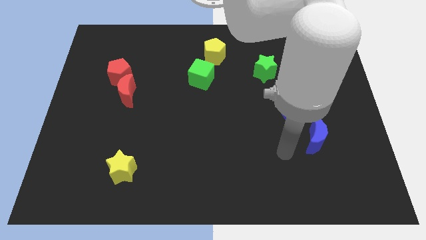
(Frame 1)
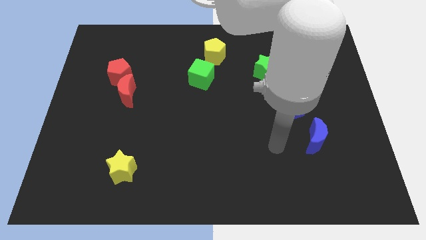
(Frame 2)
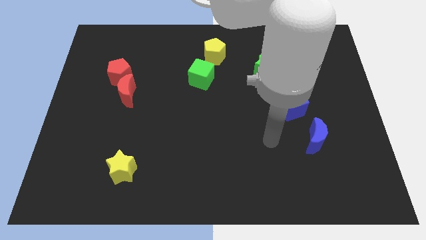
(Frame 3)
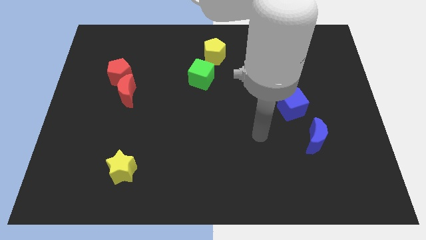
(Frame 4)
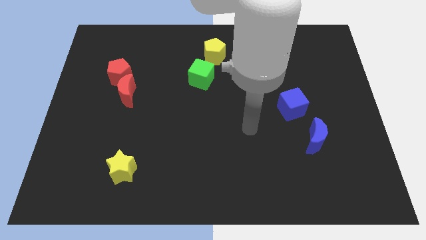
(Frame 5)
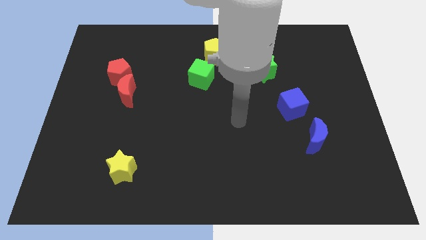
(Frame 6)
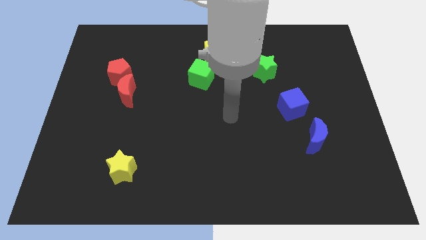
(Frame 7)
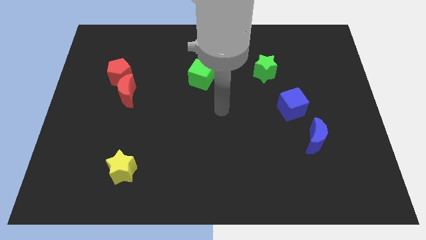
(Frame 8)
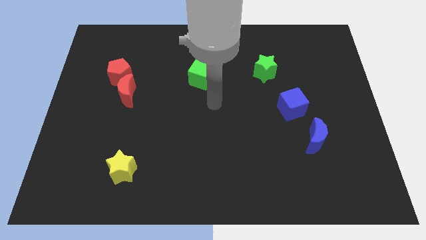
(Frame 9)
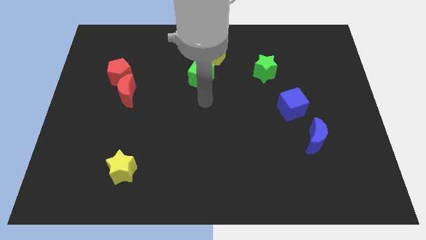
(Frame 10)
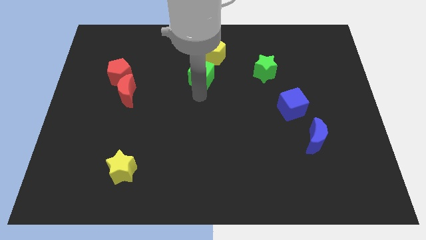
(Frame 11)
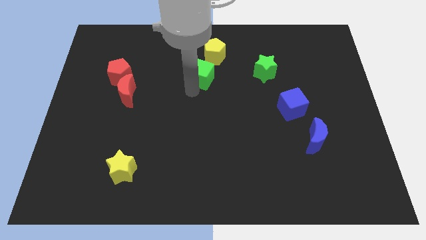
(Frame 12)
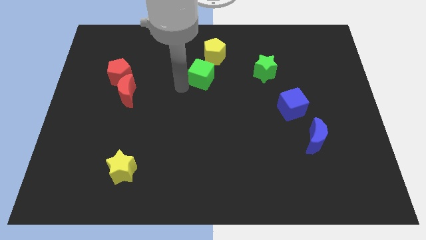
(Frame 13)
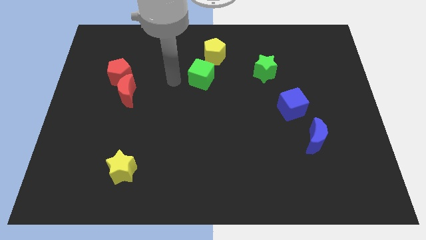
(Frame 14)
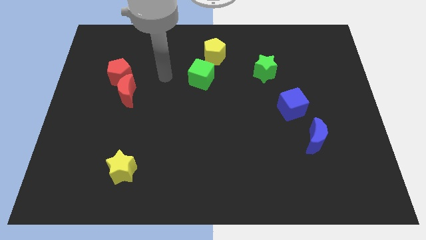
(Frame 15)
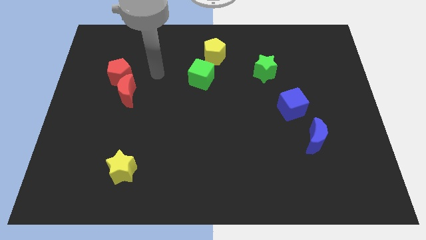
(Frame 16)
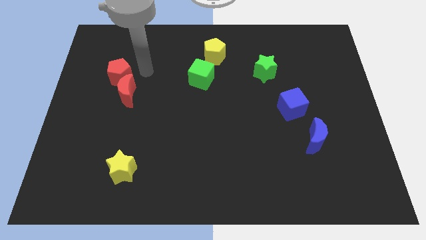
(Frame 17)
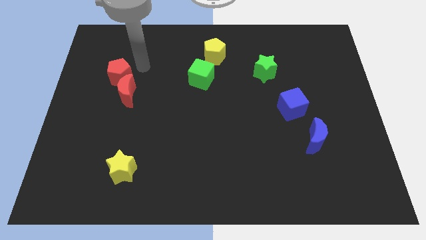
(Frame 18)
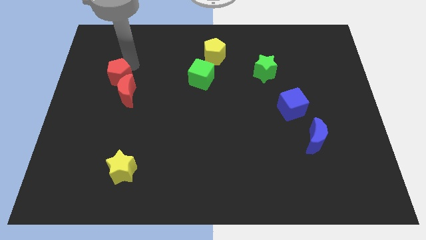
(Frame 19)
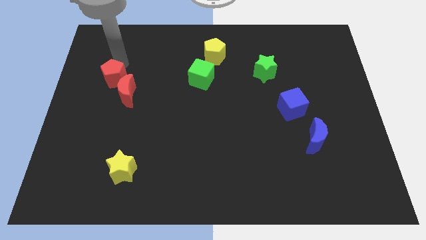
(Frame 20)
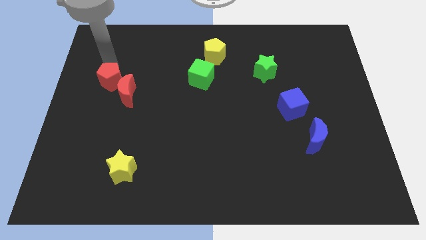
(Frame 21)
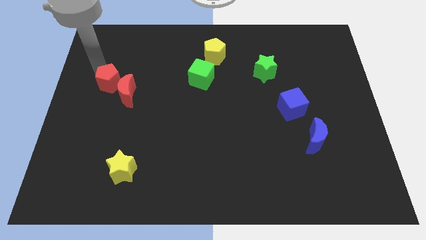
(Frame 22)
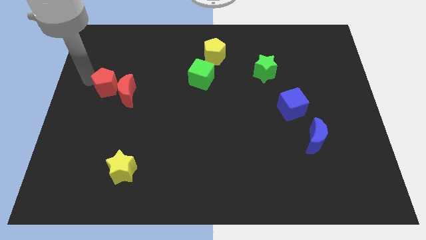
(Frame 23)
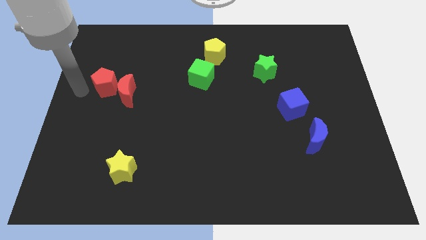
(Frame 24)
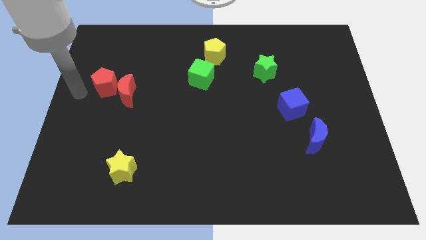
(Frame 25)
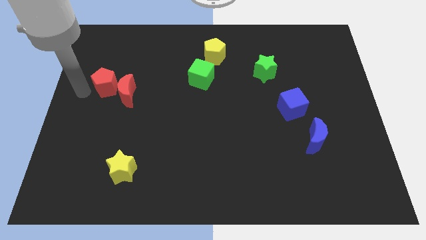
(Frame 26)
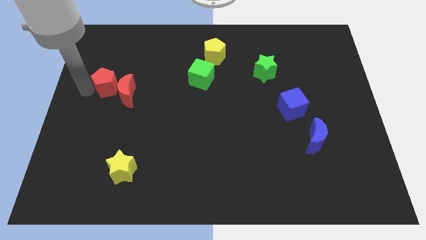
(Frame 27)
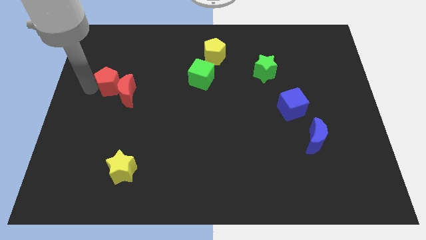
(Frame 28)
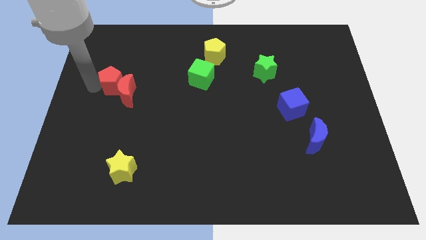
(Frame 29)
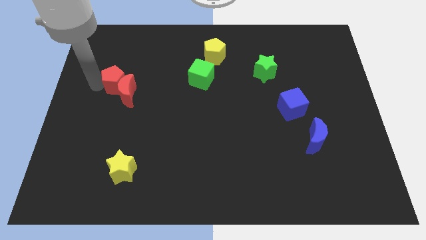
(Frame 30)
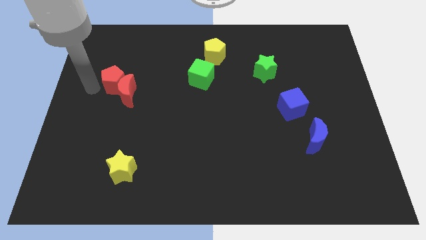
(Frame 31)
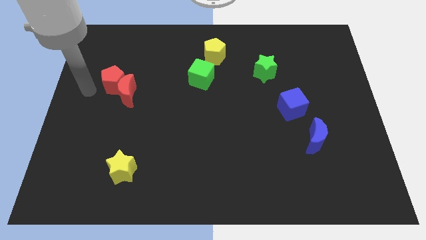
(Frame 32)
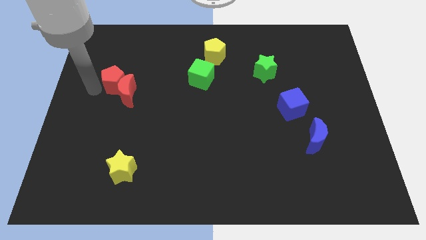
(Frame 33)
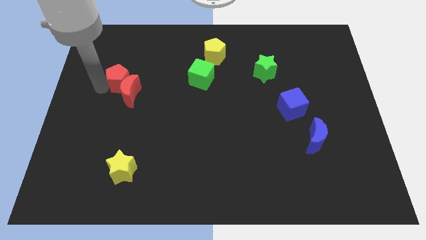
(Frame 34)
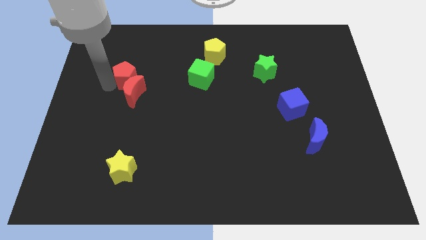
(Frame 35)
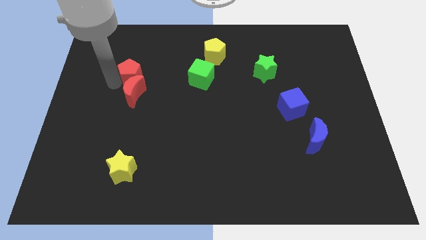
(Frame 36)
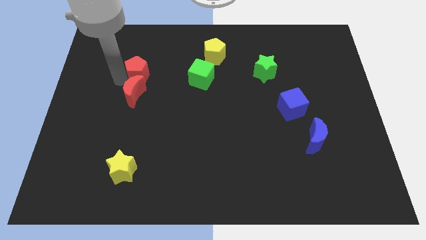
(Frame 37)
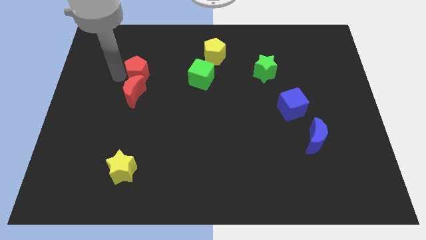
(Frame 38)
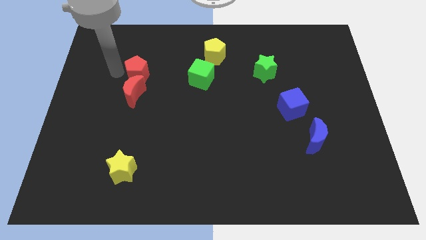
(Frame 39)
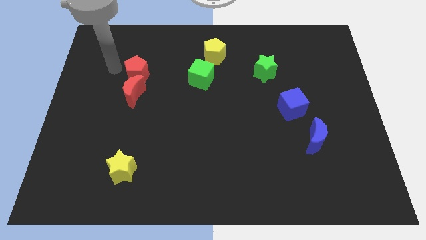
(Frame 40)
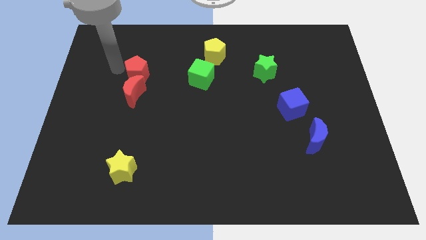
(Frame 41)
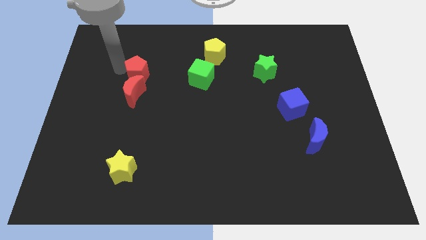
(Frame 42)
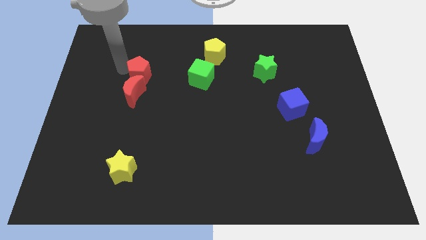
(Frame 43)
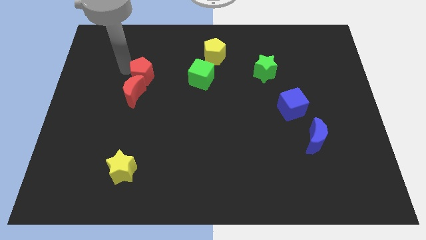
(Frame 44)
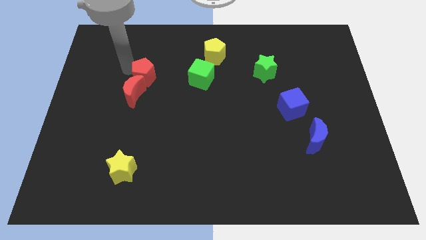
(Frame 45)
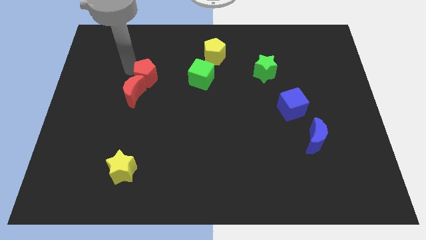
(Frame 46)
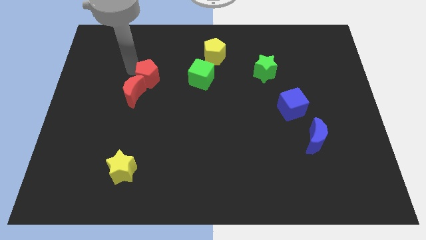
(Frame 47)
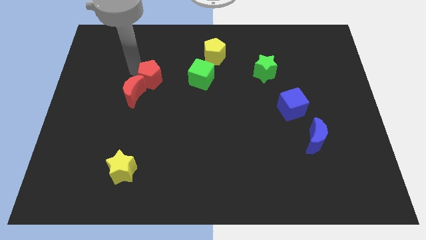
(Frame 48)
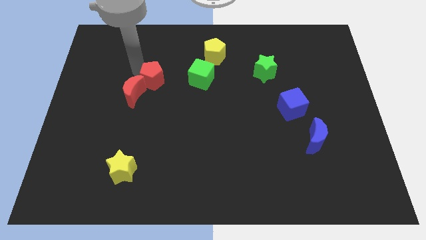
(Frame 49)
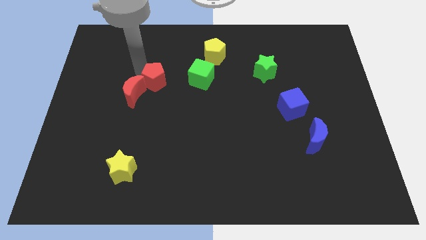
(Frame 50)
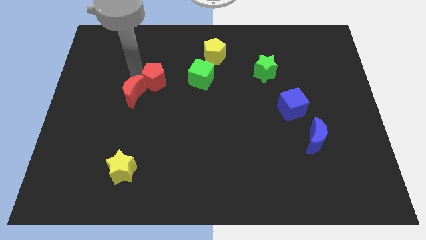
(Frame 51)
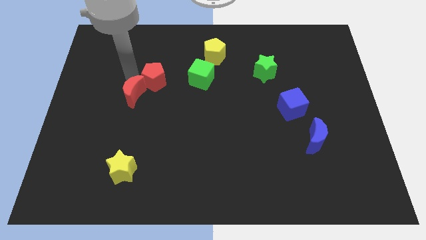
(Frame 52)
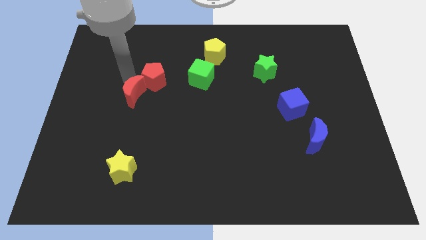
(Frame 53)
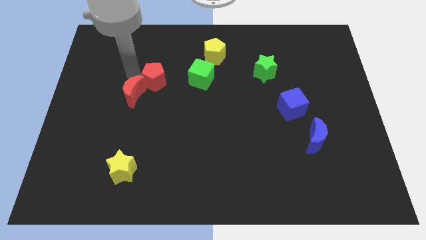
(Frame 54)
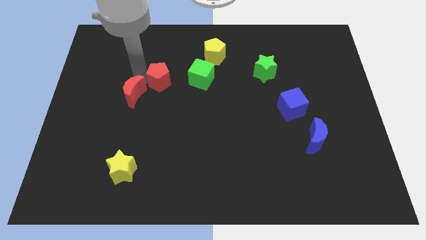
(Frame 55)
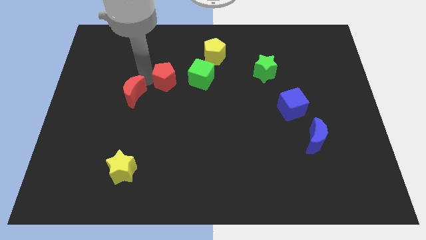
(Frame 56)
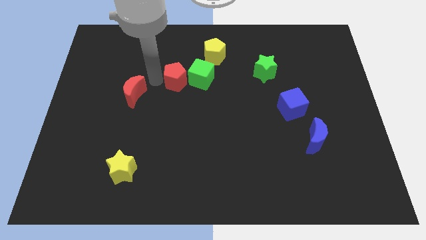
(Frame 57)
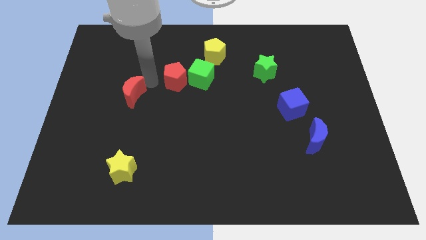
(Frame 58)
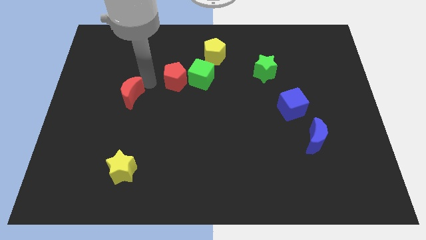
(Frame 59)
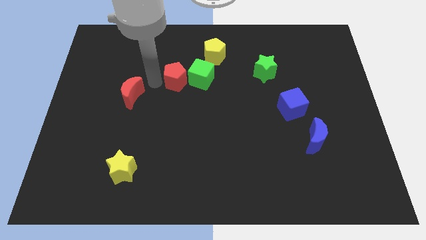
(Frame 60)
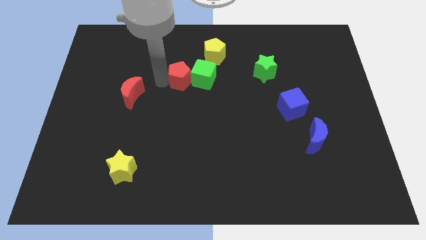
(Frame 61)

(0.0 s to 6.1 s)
slide the red pentagon next to the green cube

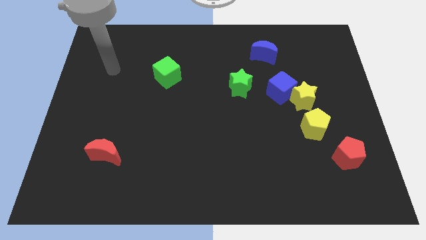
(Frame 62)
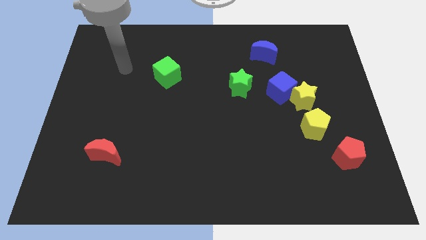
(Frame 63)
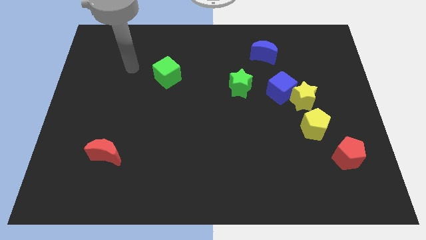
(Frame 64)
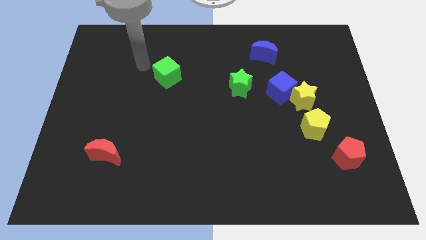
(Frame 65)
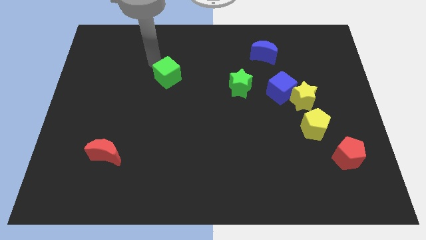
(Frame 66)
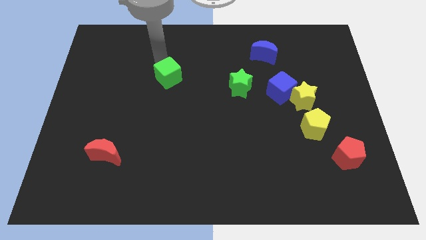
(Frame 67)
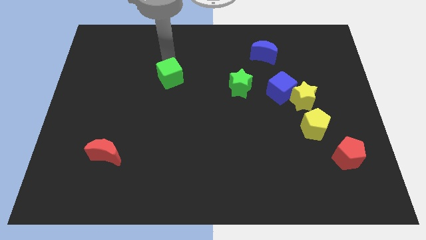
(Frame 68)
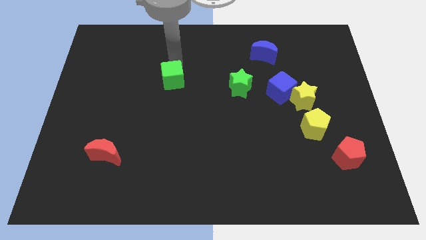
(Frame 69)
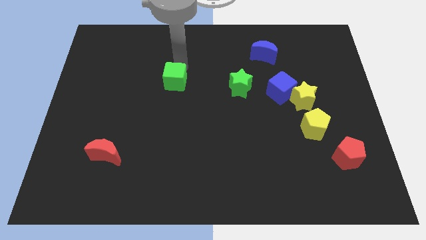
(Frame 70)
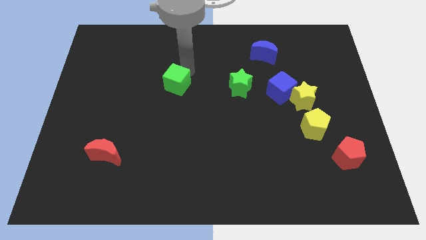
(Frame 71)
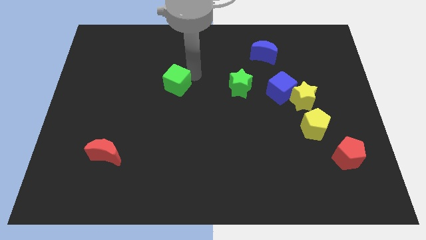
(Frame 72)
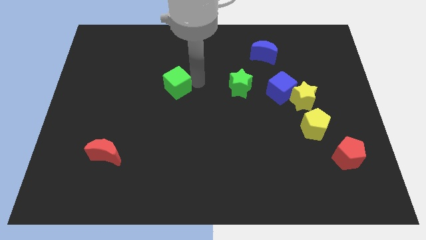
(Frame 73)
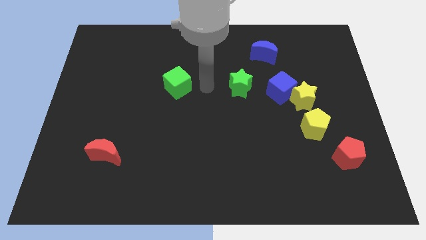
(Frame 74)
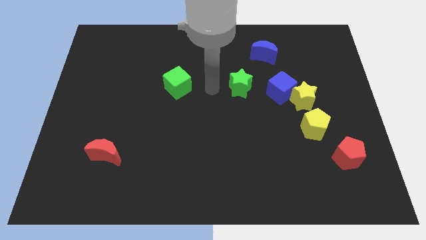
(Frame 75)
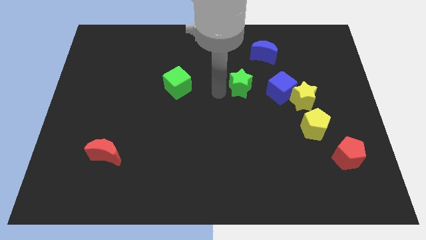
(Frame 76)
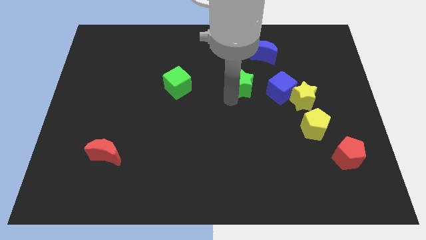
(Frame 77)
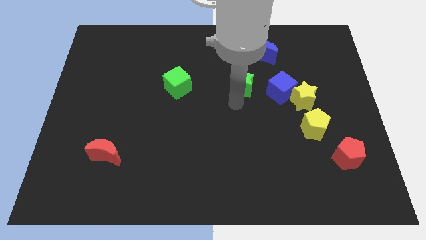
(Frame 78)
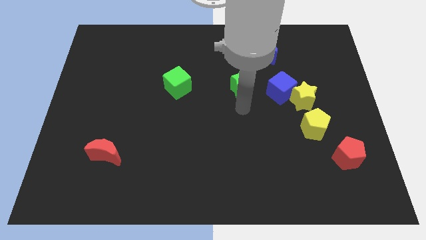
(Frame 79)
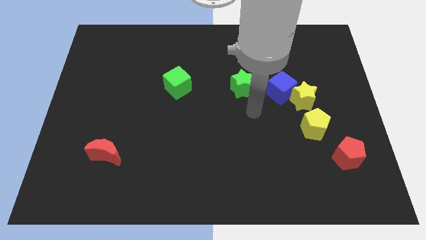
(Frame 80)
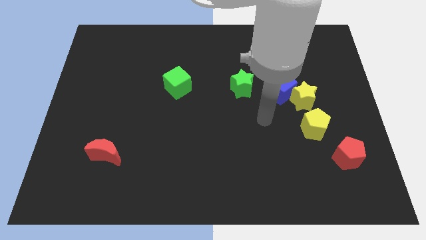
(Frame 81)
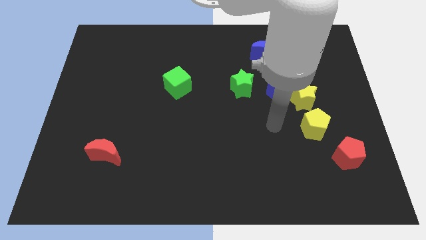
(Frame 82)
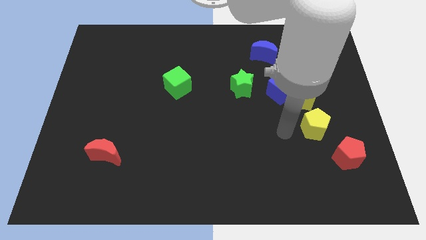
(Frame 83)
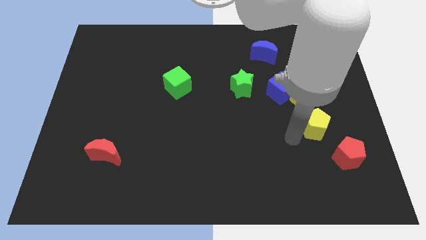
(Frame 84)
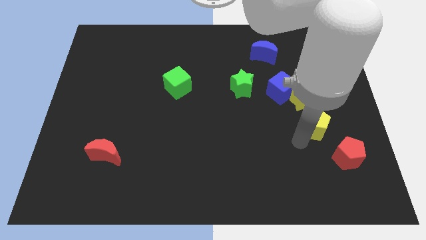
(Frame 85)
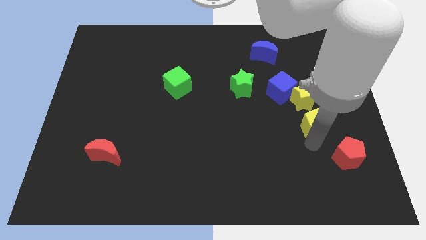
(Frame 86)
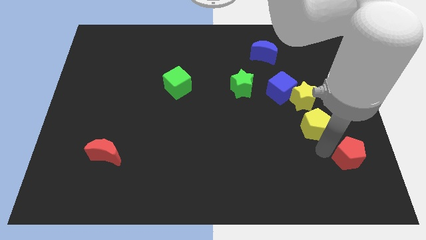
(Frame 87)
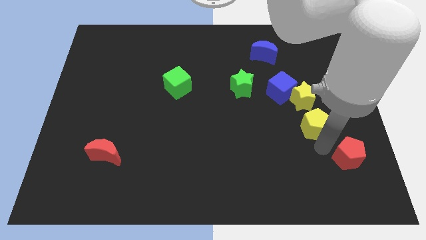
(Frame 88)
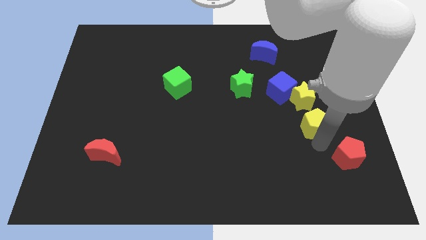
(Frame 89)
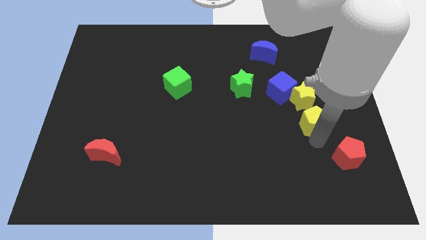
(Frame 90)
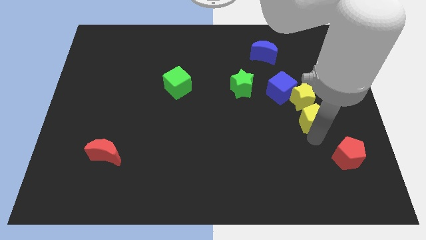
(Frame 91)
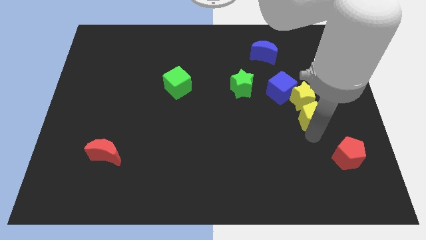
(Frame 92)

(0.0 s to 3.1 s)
slide the yellow pentagon next to the yellow star
